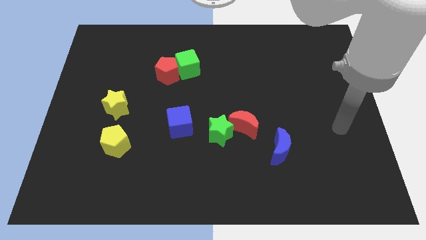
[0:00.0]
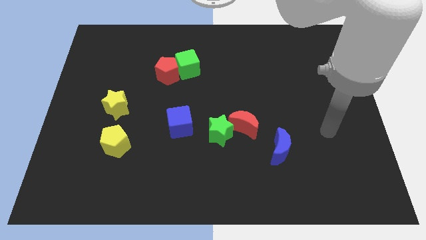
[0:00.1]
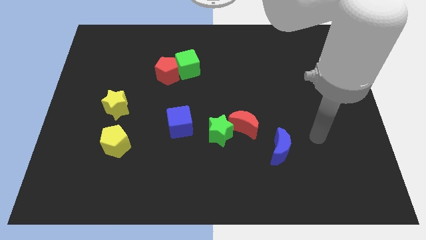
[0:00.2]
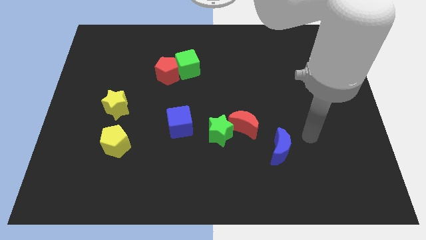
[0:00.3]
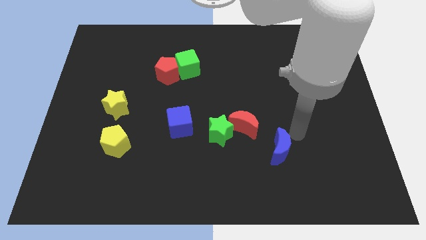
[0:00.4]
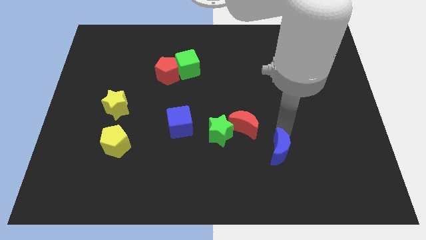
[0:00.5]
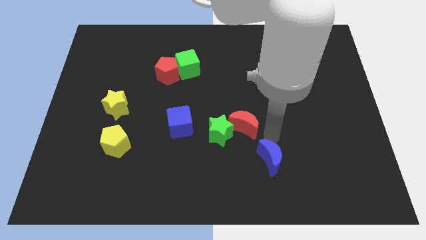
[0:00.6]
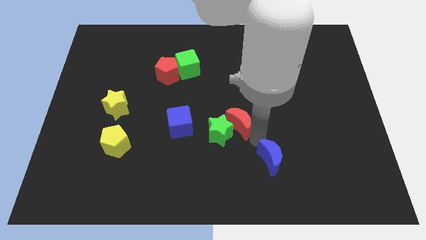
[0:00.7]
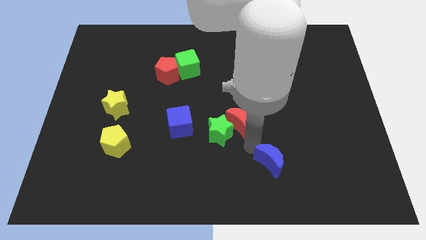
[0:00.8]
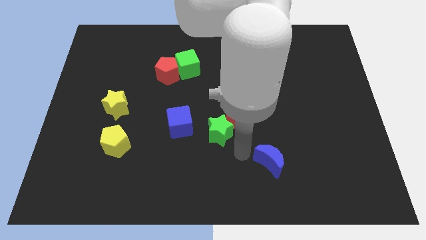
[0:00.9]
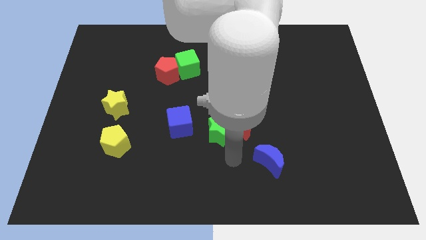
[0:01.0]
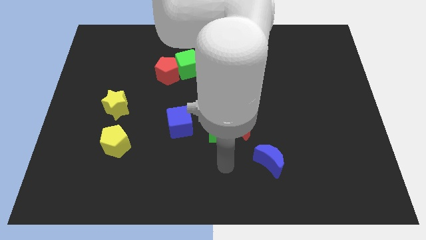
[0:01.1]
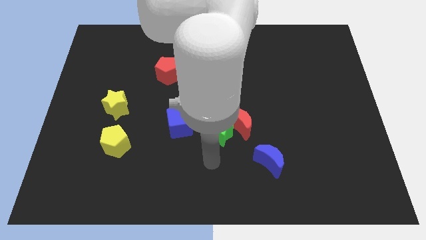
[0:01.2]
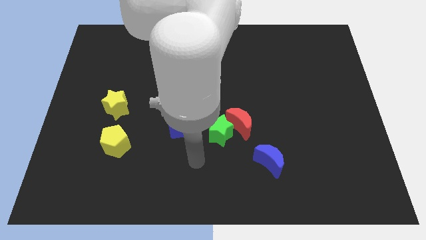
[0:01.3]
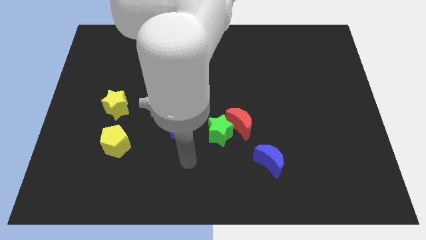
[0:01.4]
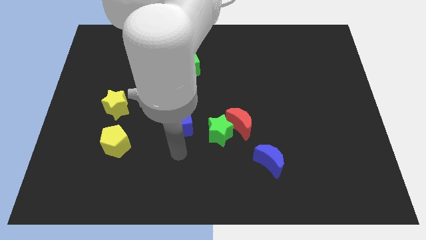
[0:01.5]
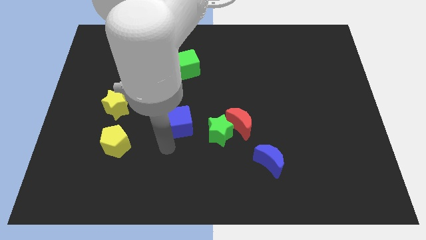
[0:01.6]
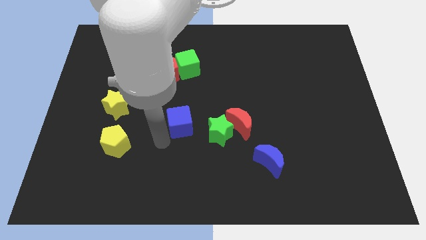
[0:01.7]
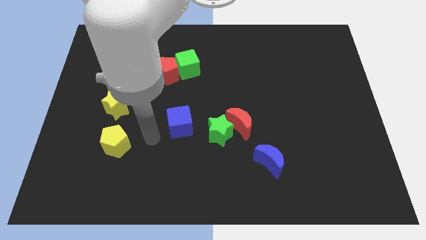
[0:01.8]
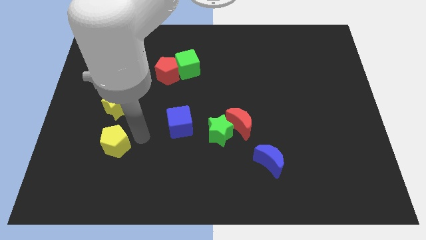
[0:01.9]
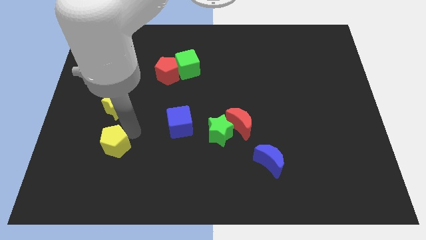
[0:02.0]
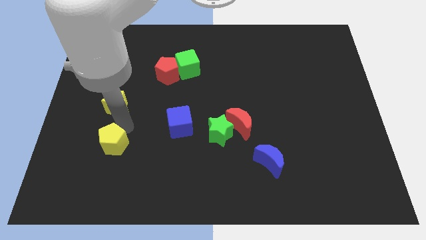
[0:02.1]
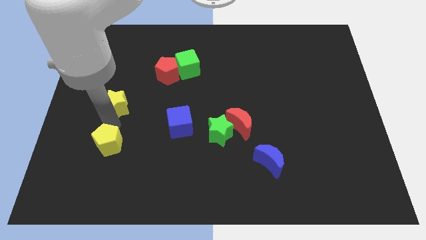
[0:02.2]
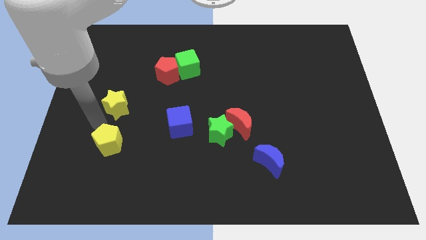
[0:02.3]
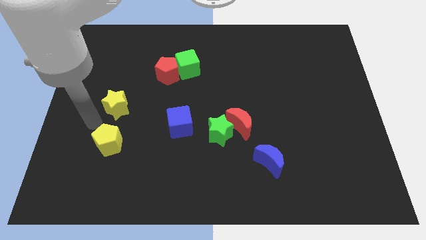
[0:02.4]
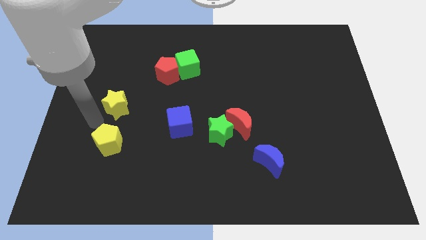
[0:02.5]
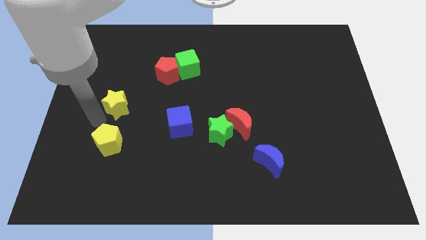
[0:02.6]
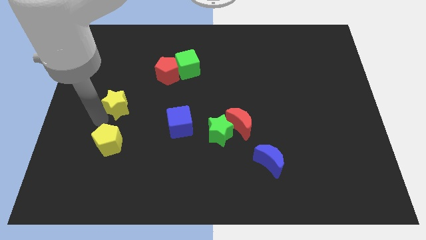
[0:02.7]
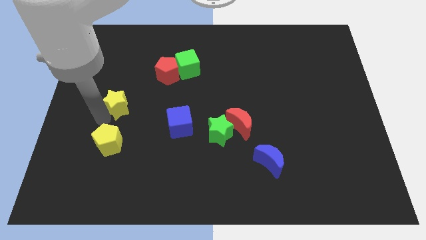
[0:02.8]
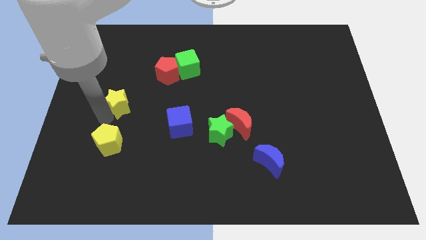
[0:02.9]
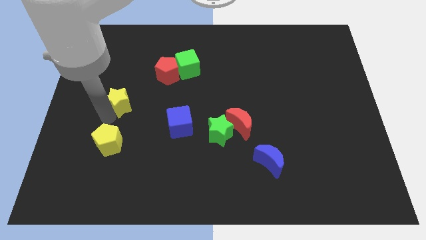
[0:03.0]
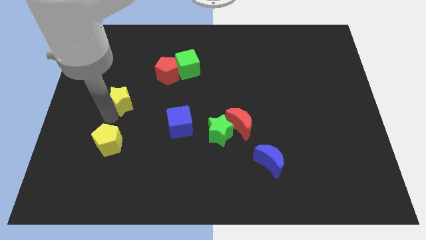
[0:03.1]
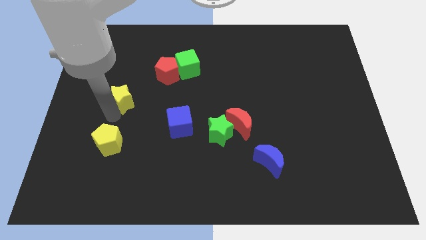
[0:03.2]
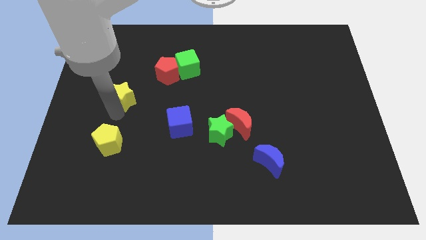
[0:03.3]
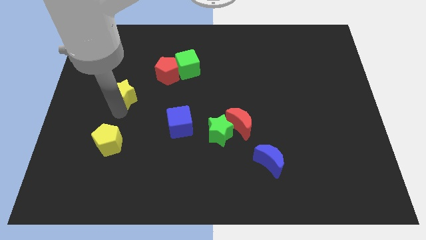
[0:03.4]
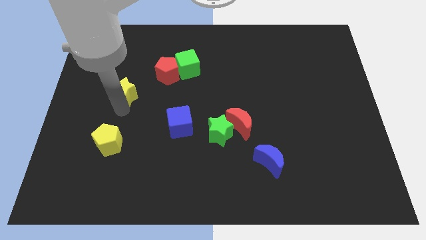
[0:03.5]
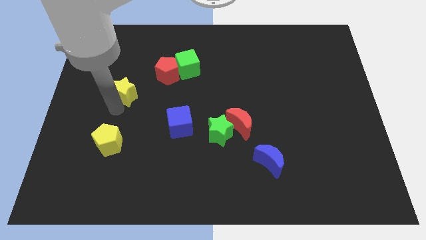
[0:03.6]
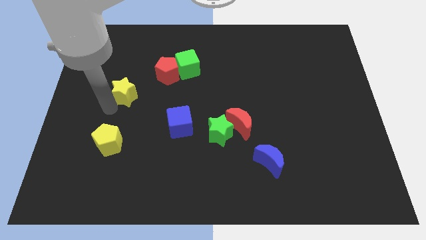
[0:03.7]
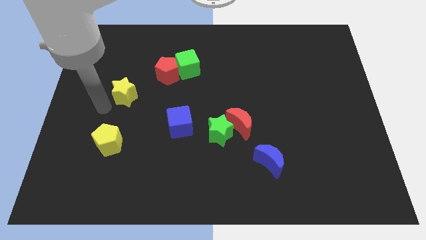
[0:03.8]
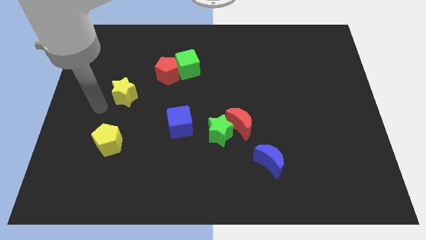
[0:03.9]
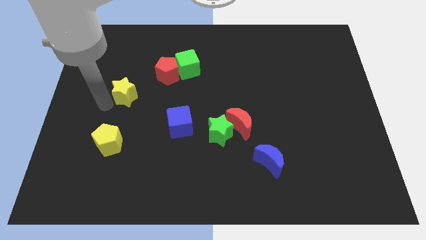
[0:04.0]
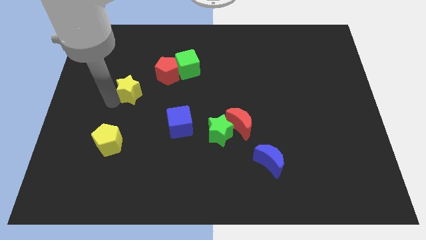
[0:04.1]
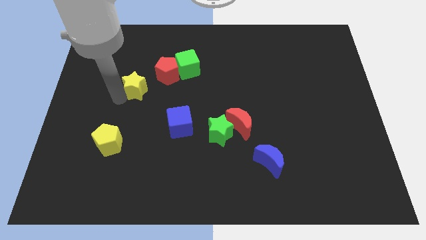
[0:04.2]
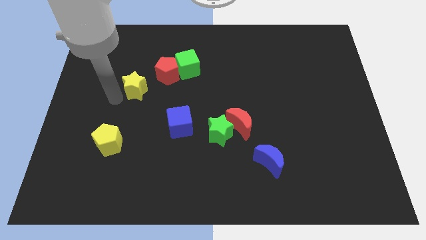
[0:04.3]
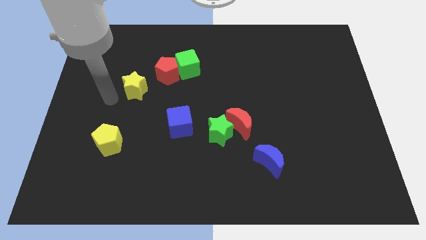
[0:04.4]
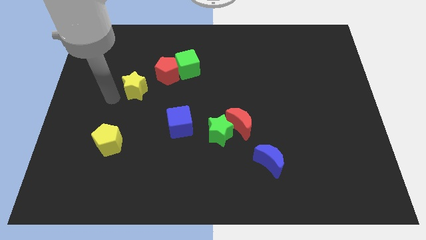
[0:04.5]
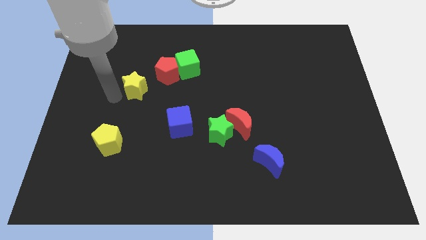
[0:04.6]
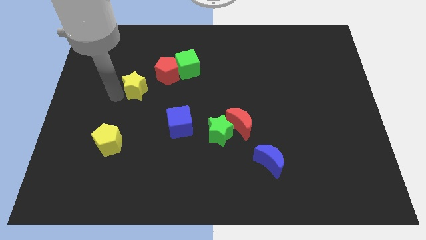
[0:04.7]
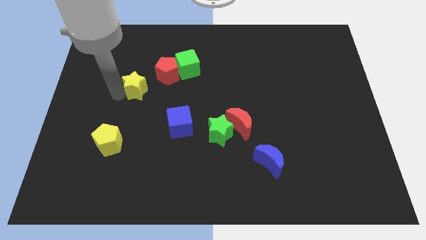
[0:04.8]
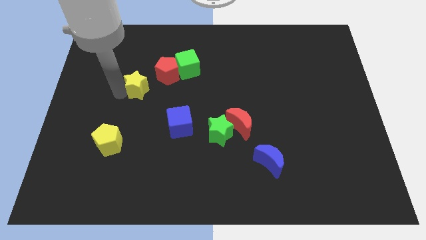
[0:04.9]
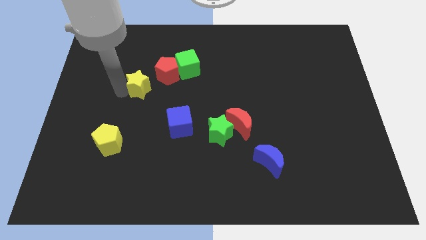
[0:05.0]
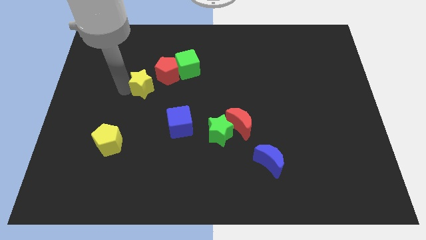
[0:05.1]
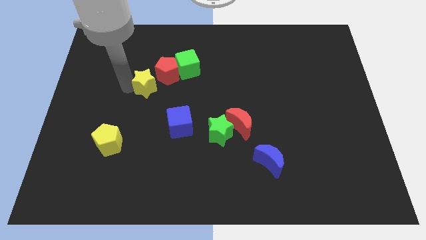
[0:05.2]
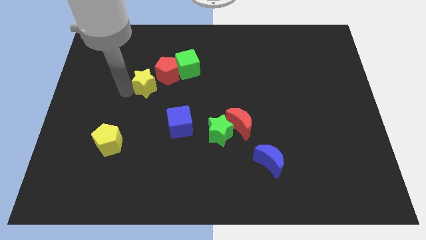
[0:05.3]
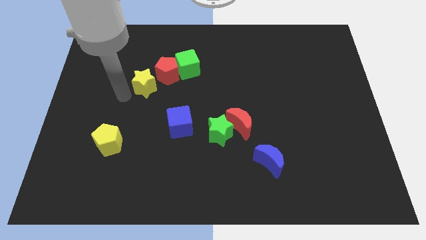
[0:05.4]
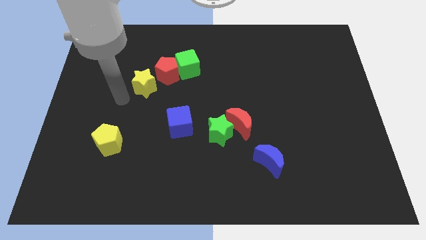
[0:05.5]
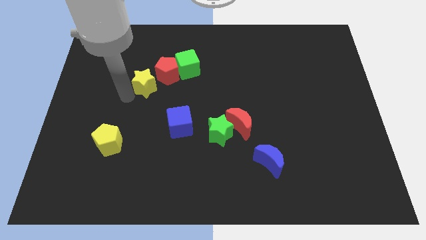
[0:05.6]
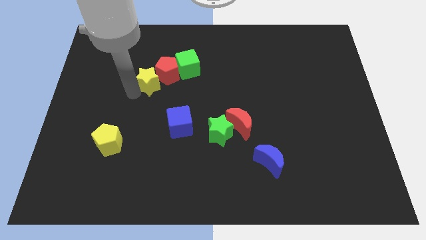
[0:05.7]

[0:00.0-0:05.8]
slide the yellow star towards the red pentagon

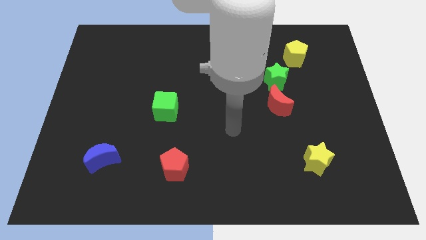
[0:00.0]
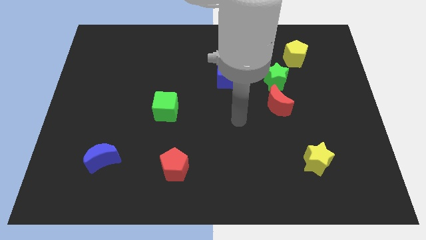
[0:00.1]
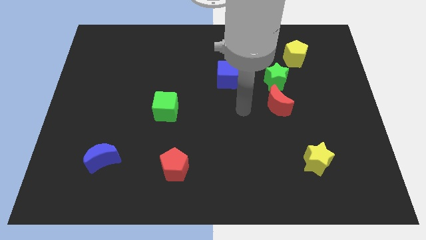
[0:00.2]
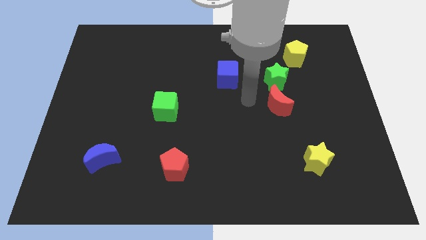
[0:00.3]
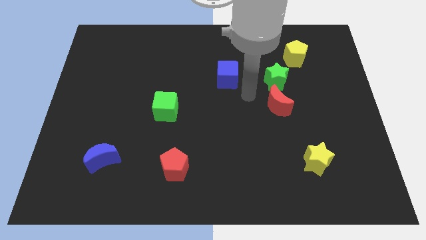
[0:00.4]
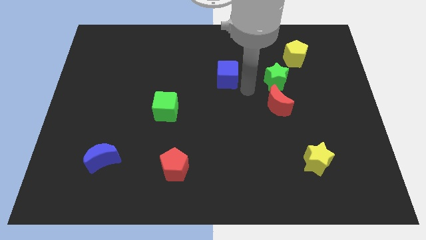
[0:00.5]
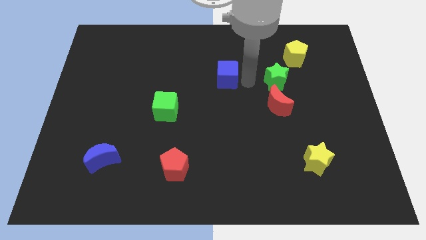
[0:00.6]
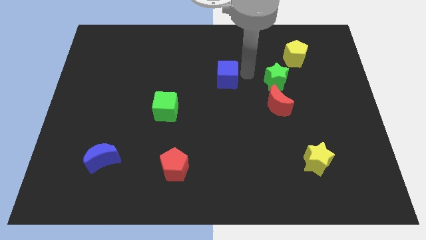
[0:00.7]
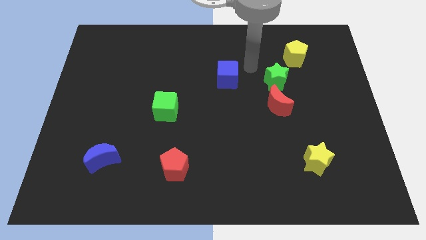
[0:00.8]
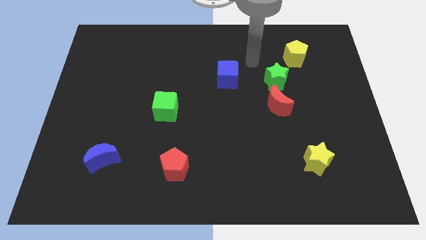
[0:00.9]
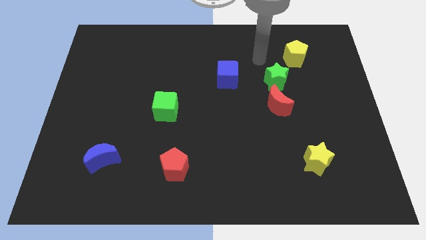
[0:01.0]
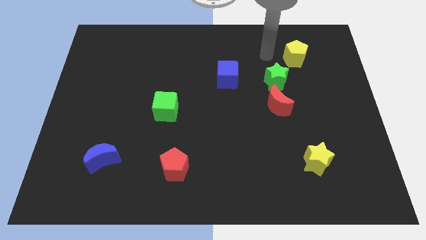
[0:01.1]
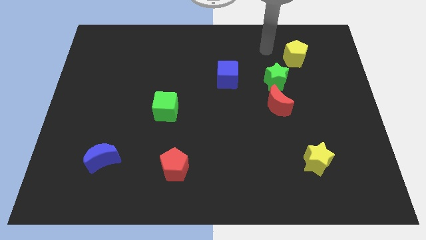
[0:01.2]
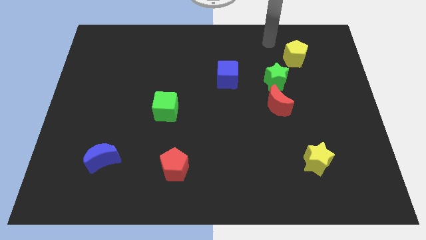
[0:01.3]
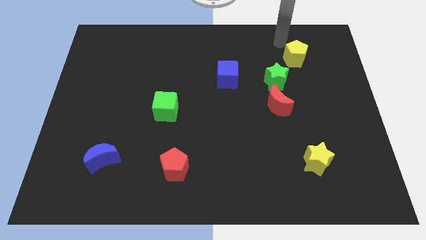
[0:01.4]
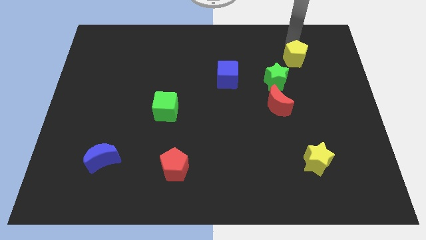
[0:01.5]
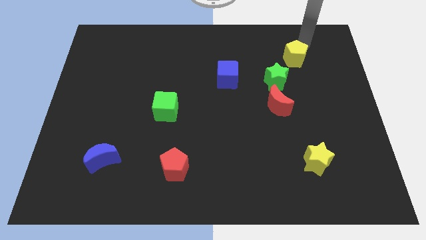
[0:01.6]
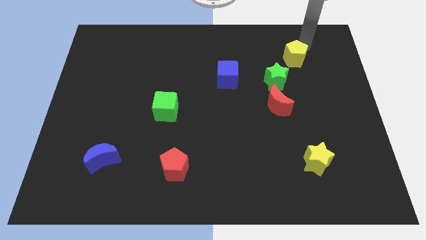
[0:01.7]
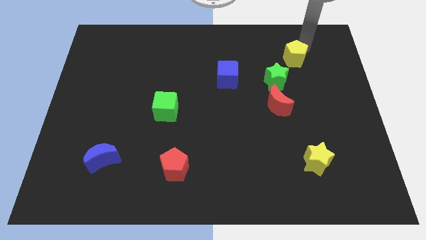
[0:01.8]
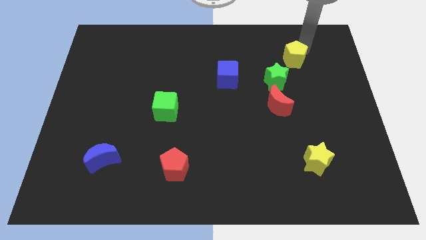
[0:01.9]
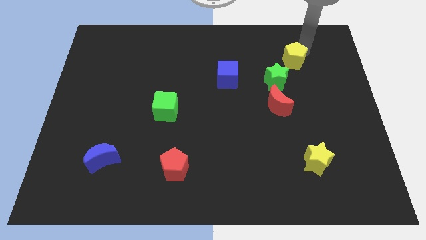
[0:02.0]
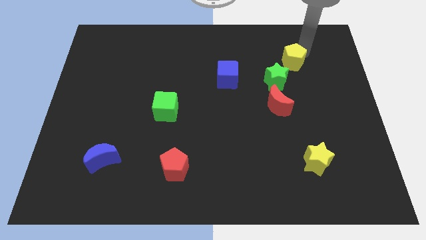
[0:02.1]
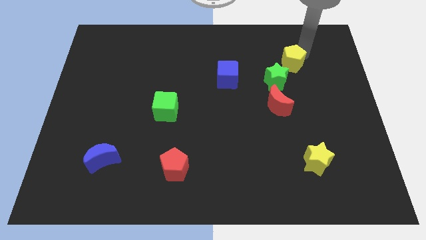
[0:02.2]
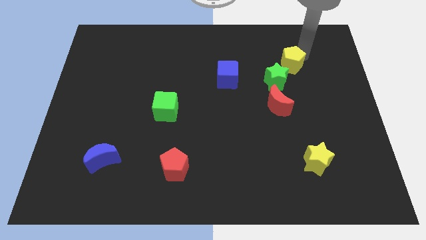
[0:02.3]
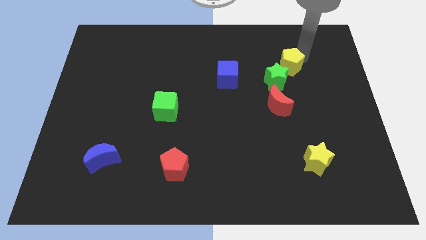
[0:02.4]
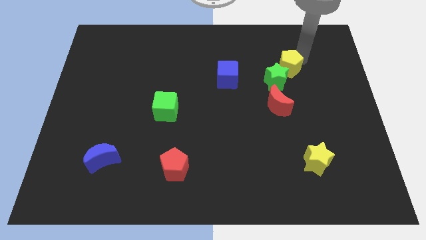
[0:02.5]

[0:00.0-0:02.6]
put the yellow pentagon close to the green star
